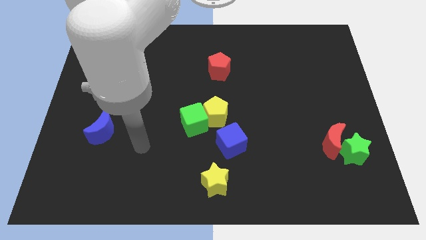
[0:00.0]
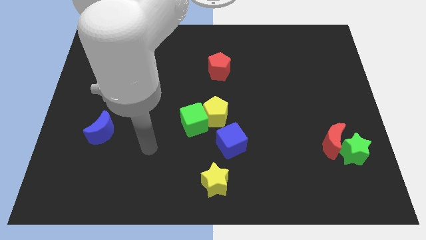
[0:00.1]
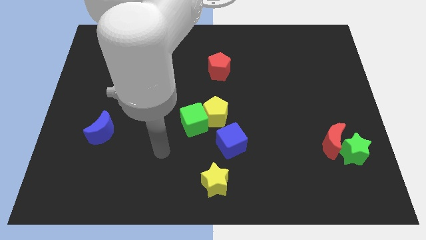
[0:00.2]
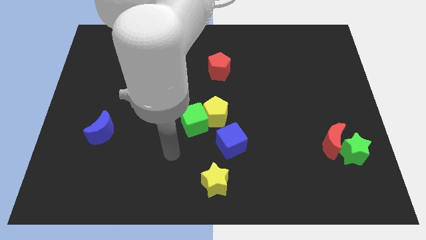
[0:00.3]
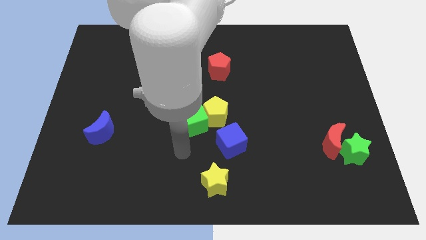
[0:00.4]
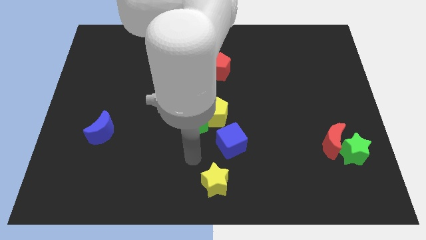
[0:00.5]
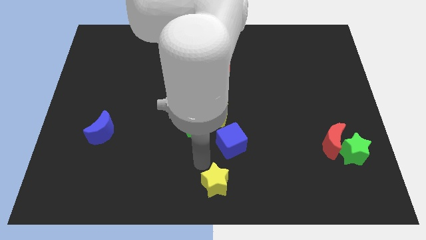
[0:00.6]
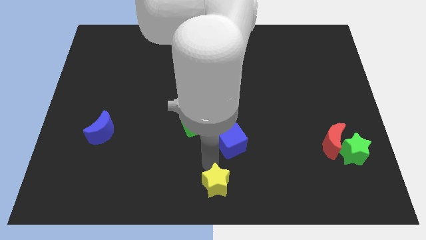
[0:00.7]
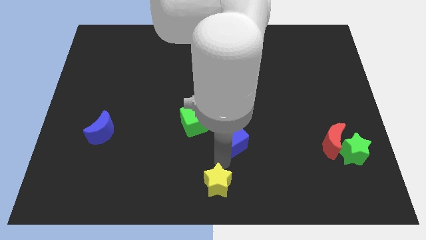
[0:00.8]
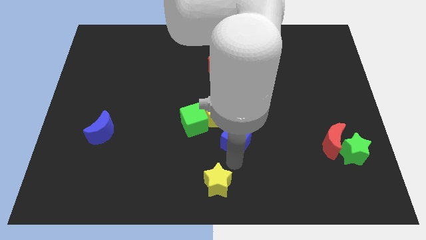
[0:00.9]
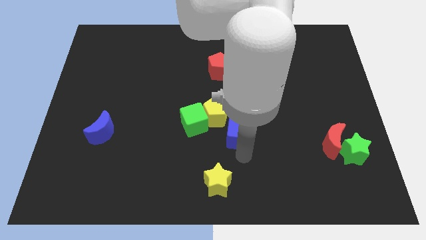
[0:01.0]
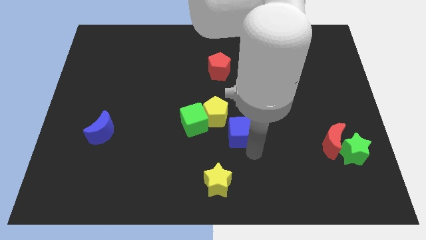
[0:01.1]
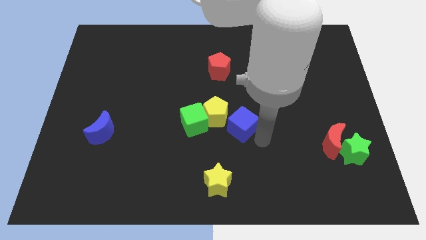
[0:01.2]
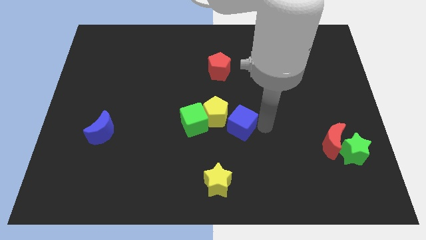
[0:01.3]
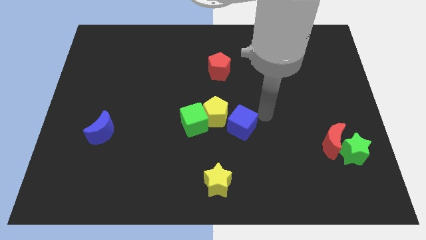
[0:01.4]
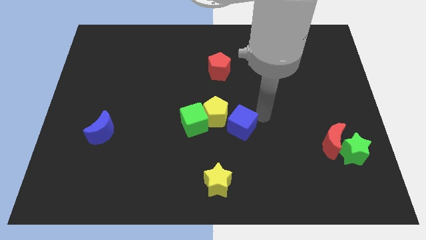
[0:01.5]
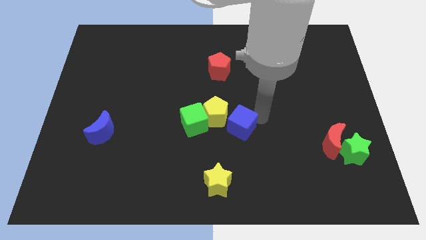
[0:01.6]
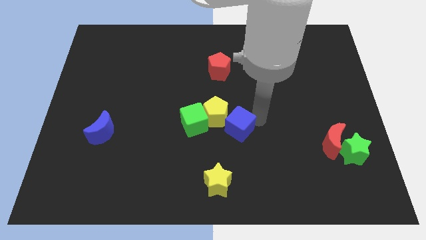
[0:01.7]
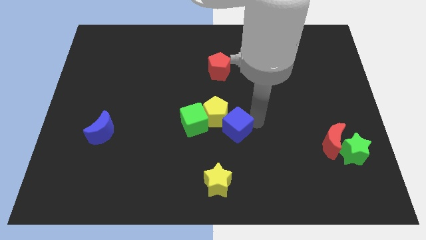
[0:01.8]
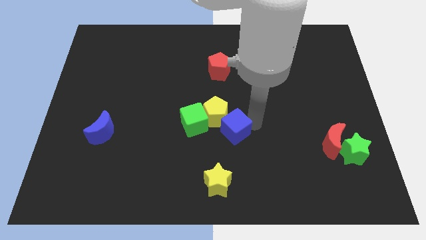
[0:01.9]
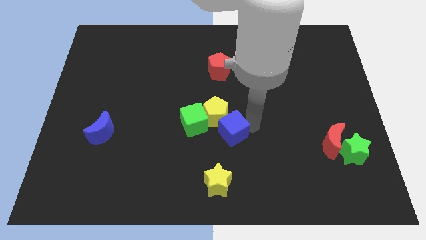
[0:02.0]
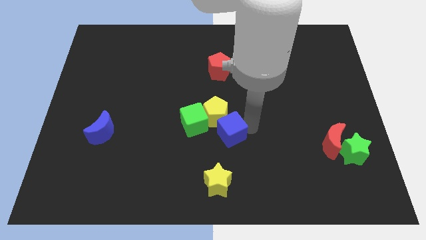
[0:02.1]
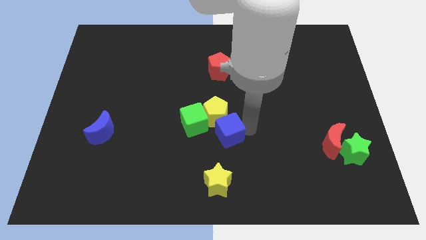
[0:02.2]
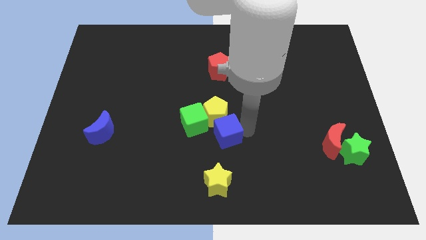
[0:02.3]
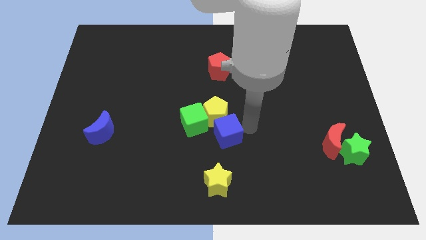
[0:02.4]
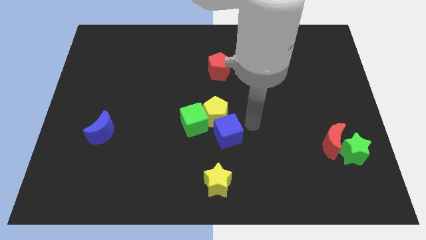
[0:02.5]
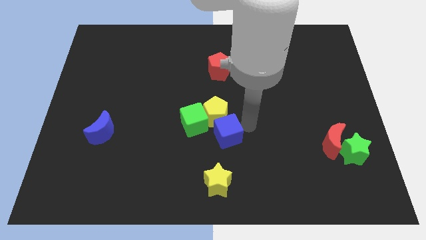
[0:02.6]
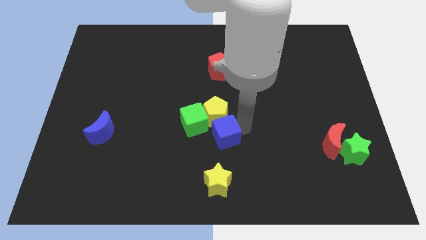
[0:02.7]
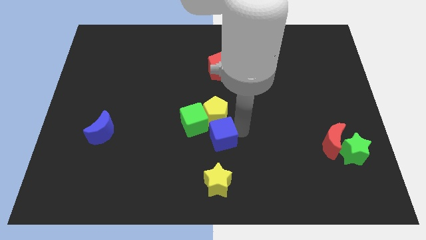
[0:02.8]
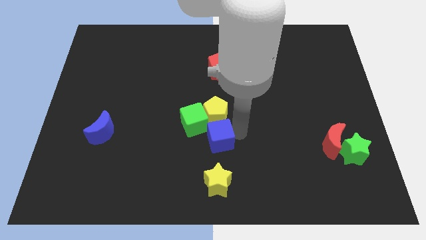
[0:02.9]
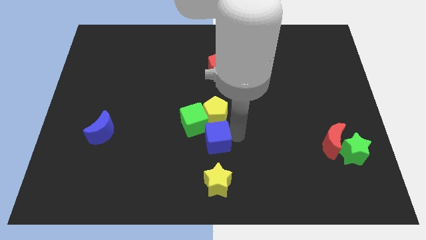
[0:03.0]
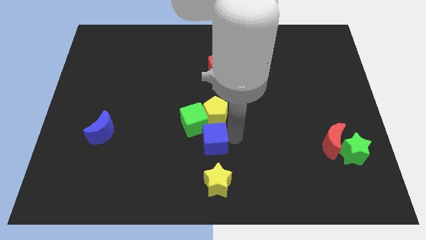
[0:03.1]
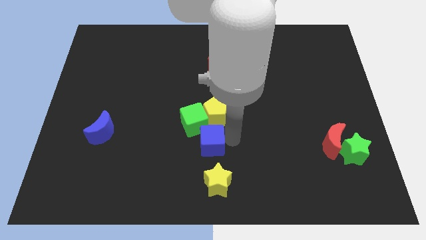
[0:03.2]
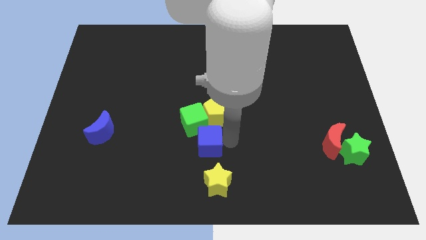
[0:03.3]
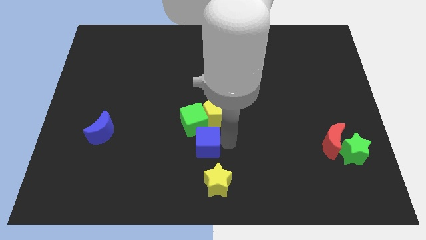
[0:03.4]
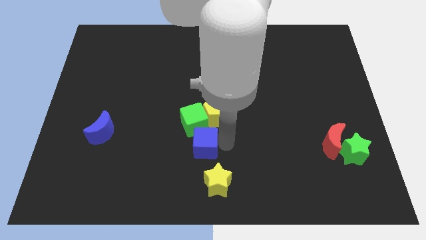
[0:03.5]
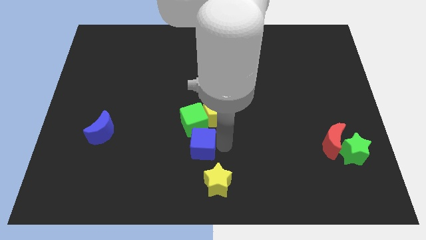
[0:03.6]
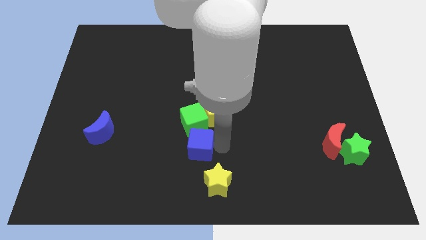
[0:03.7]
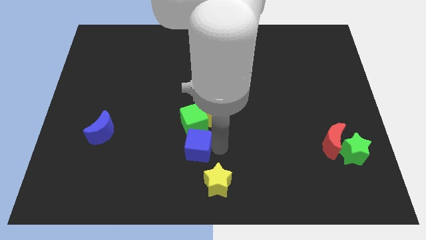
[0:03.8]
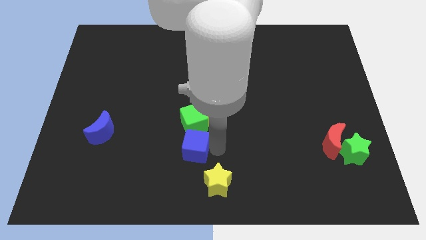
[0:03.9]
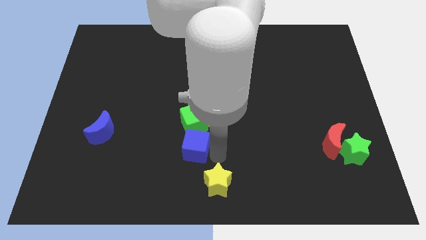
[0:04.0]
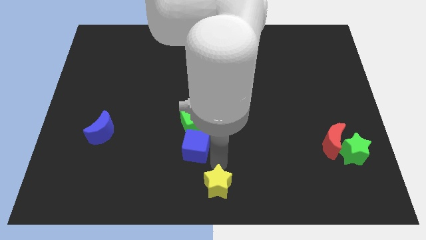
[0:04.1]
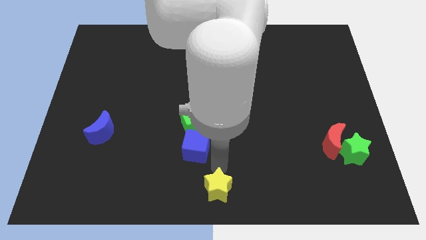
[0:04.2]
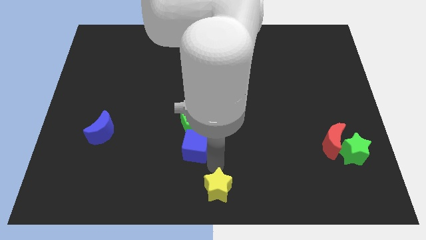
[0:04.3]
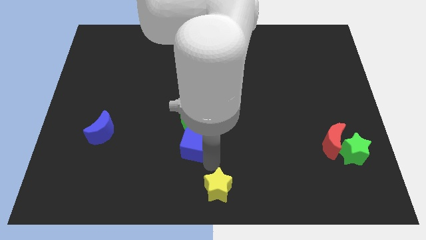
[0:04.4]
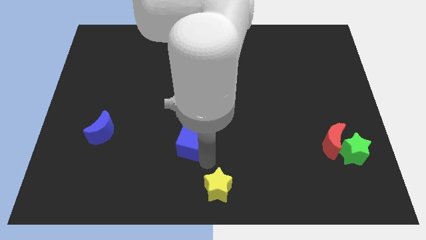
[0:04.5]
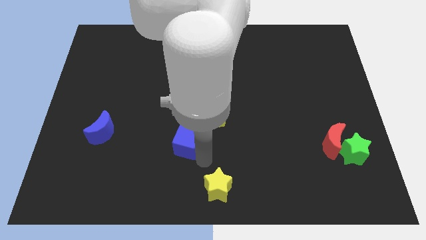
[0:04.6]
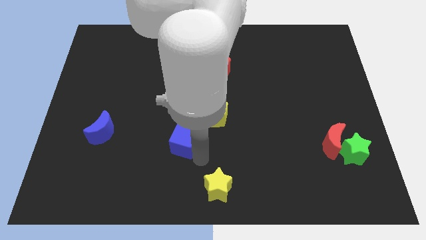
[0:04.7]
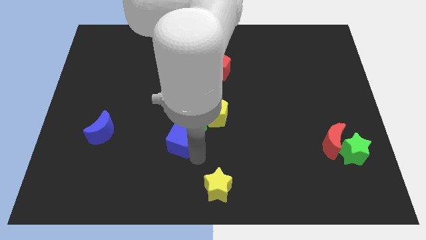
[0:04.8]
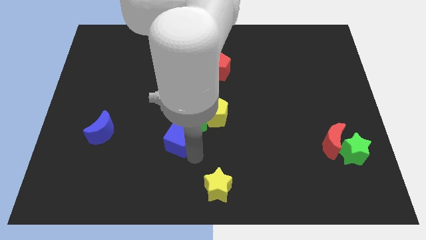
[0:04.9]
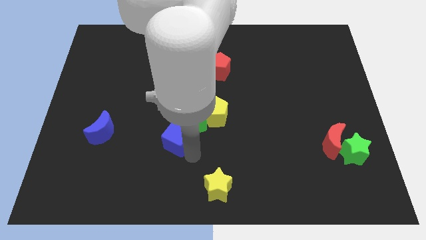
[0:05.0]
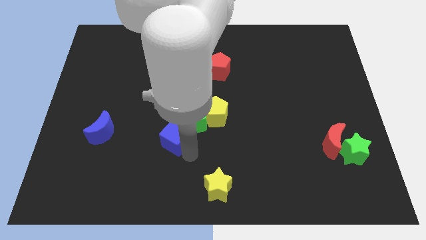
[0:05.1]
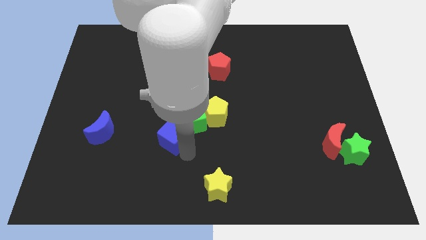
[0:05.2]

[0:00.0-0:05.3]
slightly push the blue cube diagonally upwards and left

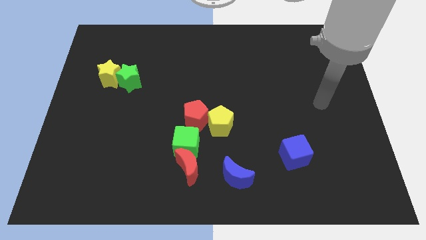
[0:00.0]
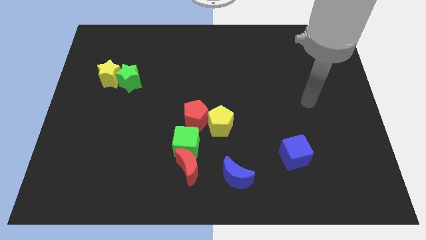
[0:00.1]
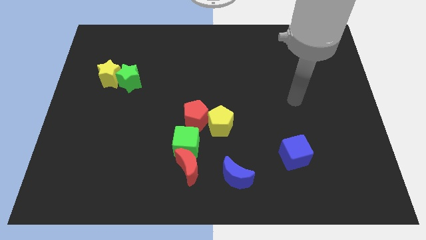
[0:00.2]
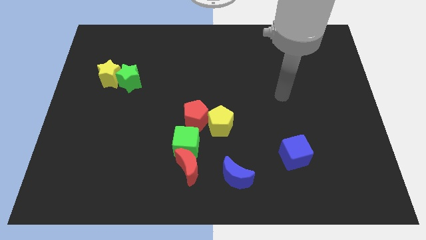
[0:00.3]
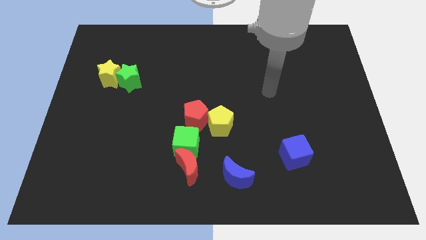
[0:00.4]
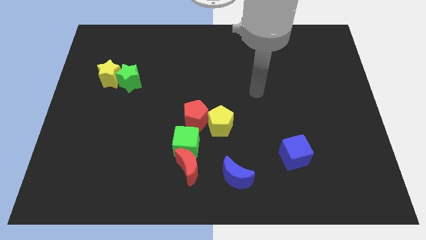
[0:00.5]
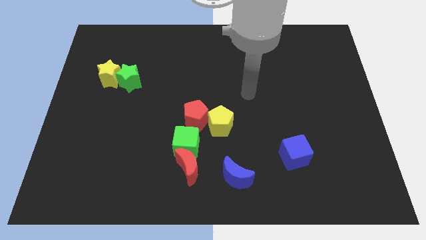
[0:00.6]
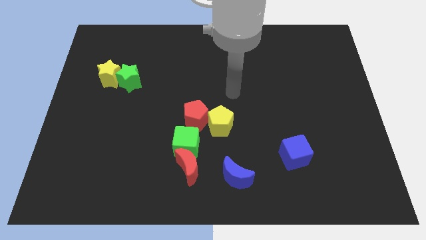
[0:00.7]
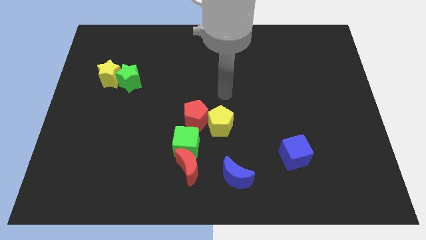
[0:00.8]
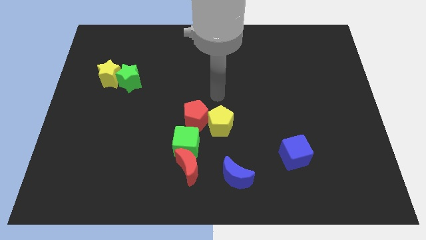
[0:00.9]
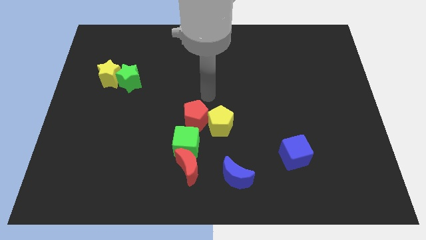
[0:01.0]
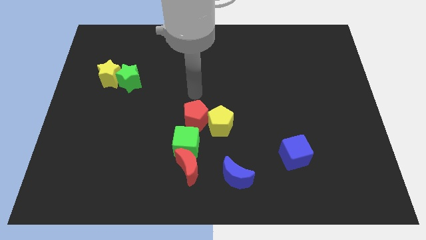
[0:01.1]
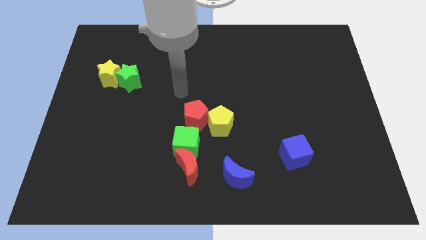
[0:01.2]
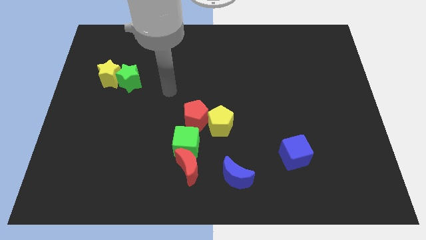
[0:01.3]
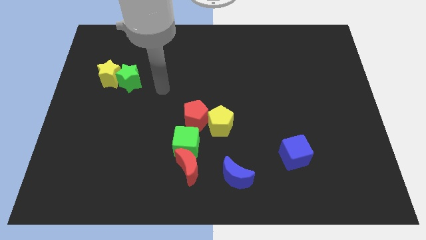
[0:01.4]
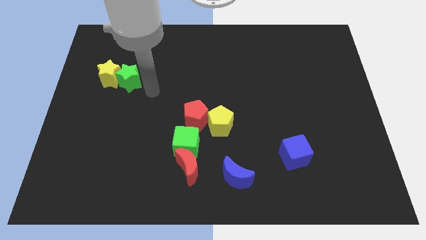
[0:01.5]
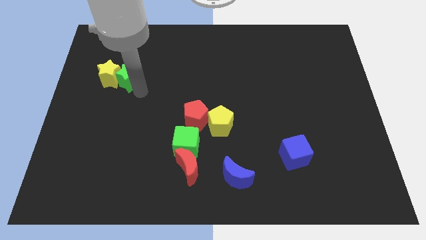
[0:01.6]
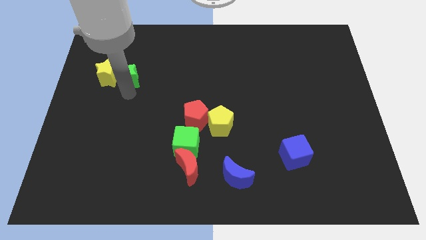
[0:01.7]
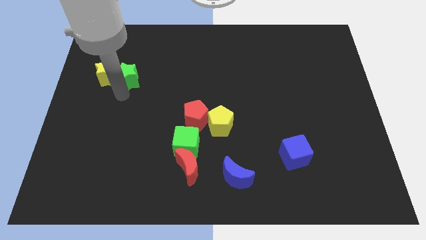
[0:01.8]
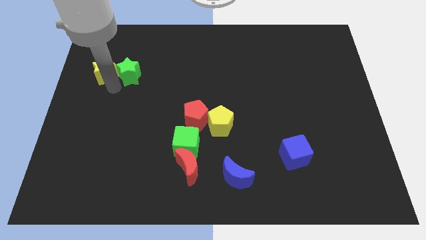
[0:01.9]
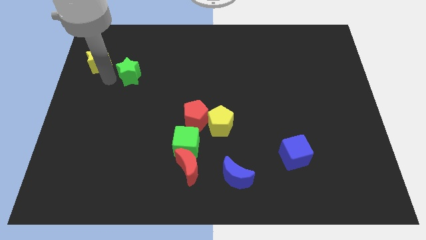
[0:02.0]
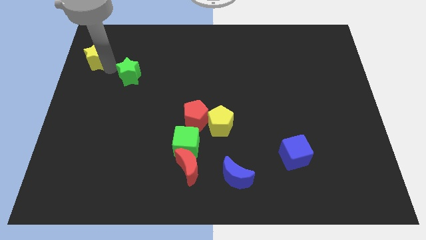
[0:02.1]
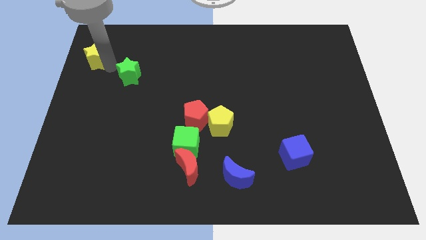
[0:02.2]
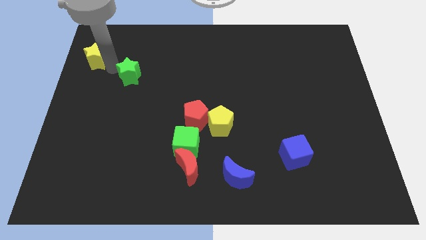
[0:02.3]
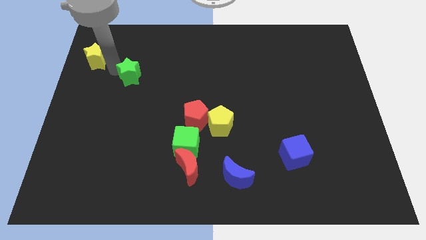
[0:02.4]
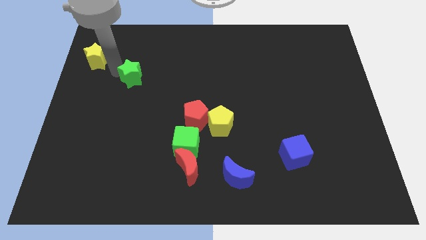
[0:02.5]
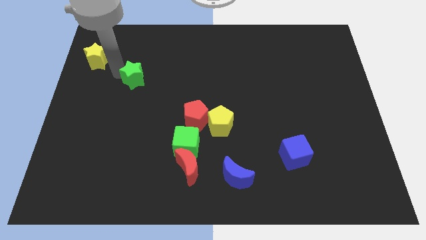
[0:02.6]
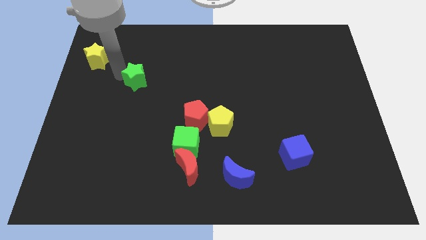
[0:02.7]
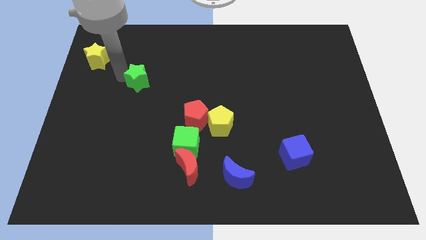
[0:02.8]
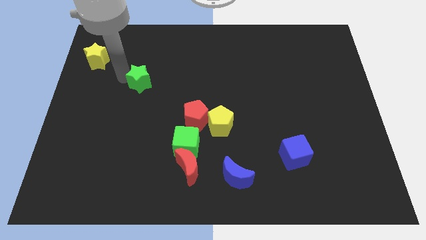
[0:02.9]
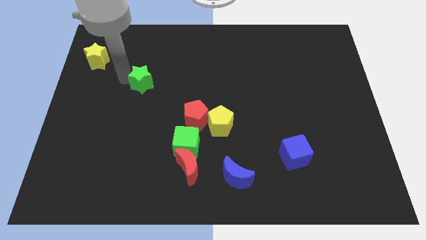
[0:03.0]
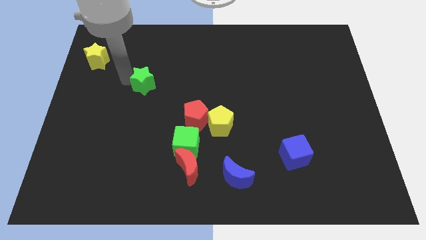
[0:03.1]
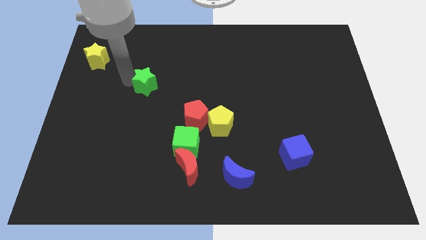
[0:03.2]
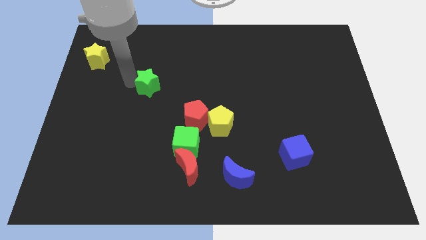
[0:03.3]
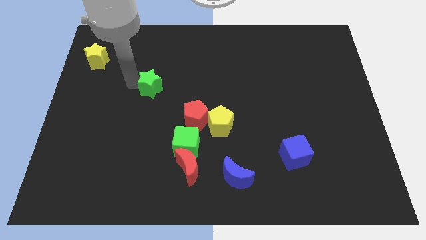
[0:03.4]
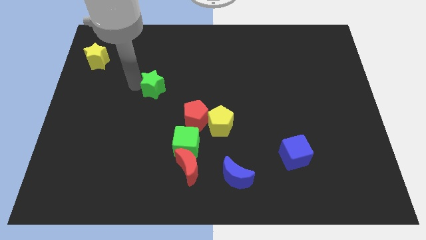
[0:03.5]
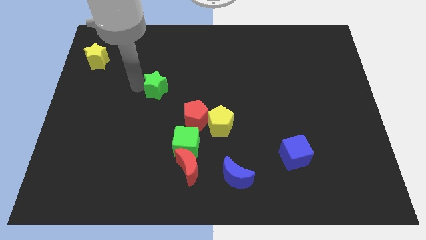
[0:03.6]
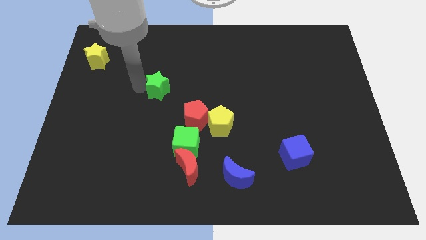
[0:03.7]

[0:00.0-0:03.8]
push the green star right a little bit
